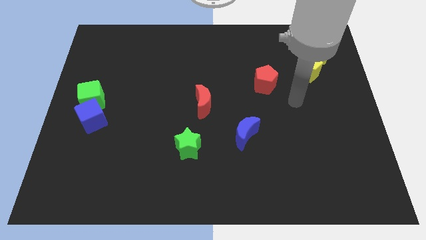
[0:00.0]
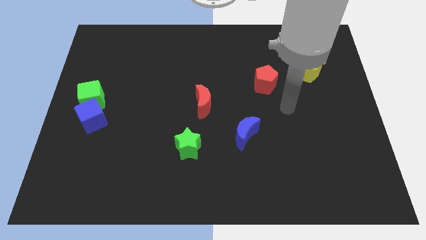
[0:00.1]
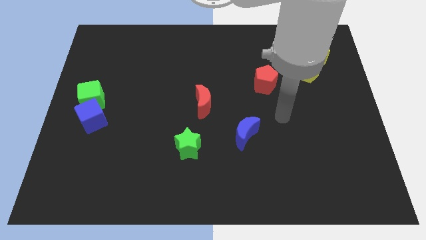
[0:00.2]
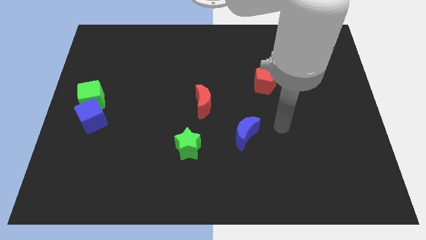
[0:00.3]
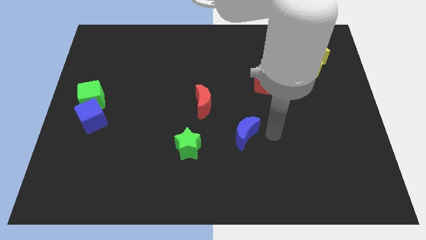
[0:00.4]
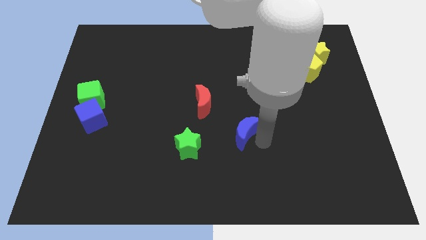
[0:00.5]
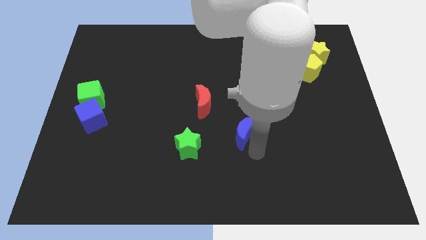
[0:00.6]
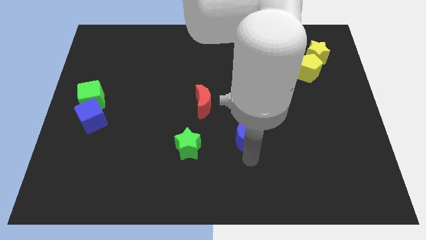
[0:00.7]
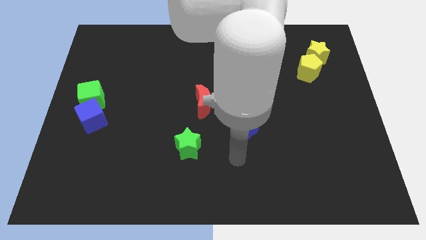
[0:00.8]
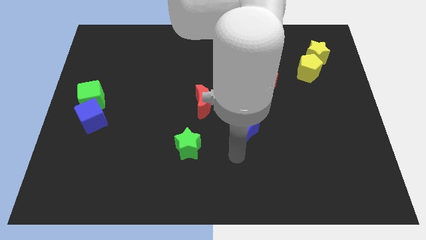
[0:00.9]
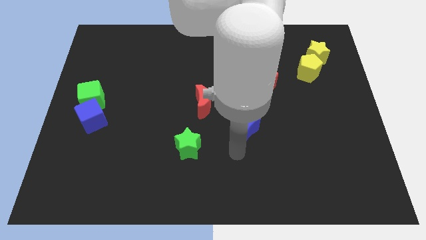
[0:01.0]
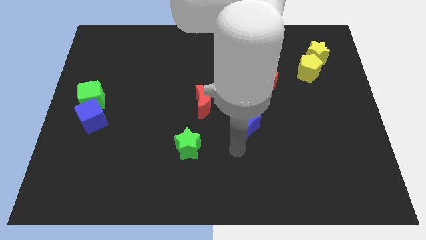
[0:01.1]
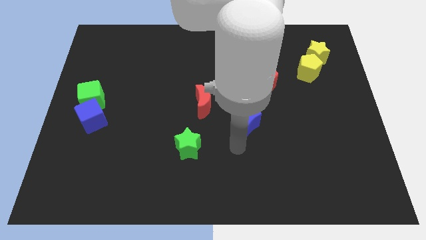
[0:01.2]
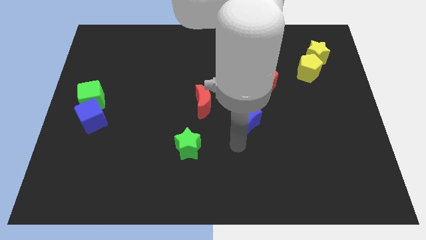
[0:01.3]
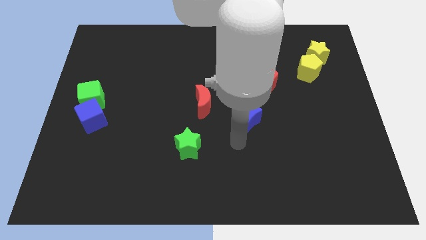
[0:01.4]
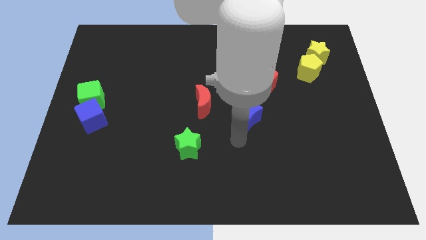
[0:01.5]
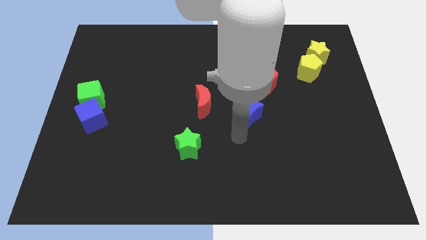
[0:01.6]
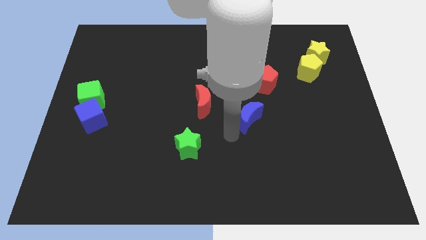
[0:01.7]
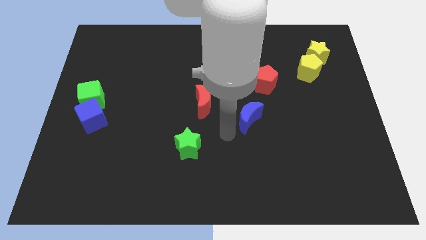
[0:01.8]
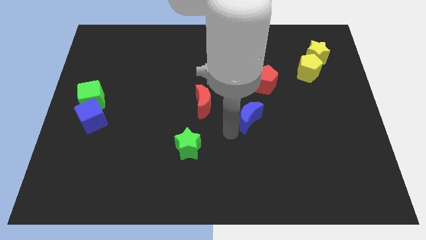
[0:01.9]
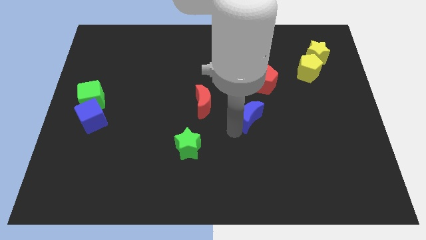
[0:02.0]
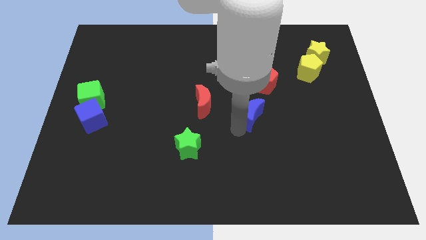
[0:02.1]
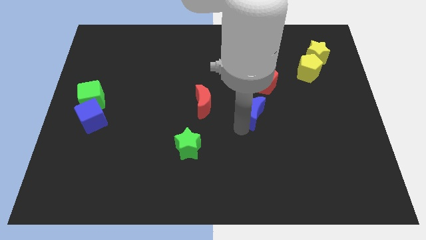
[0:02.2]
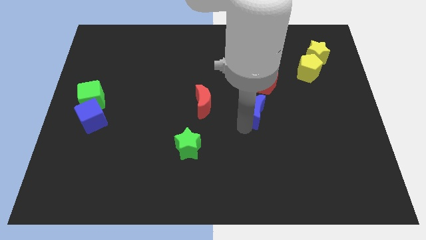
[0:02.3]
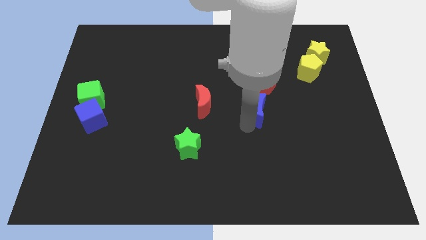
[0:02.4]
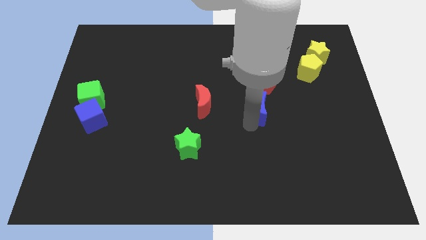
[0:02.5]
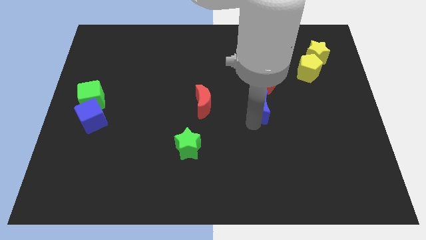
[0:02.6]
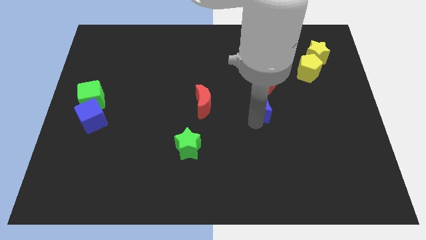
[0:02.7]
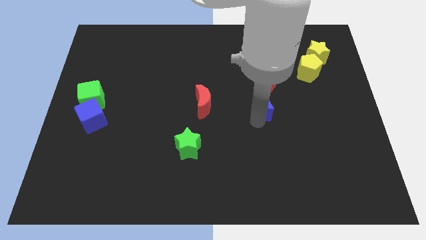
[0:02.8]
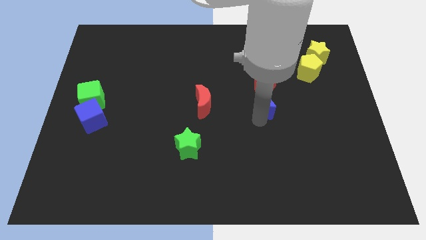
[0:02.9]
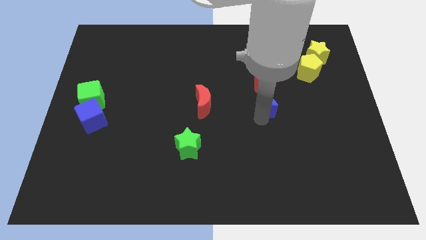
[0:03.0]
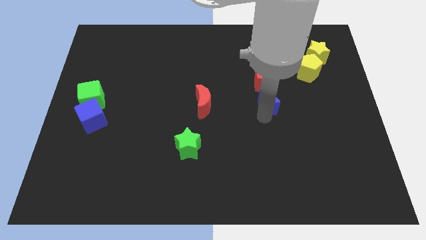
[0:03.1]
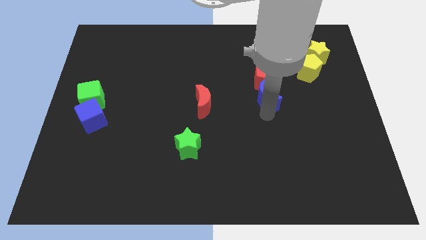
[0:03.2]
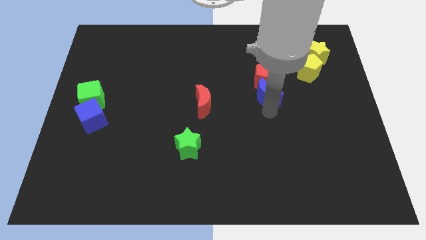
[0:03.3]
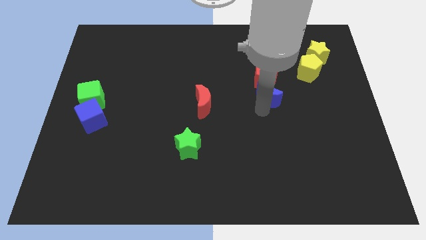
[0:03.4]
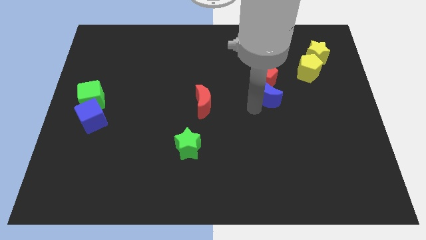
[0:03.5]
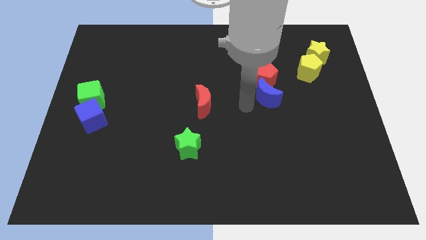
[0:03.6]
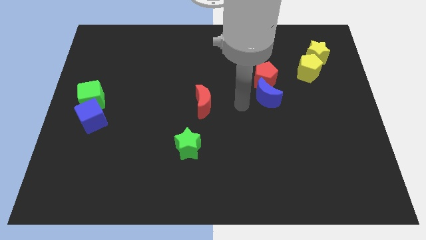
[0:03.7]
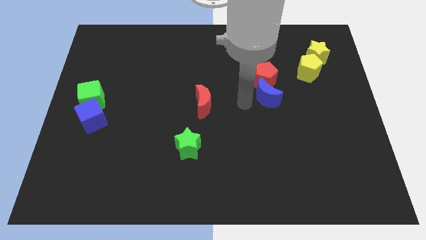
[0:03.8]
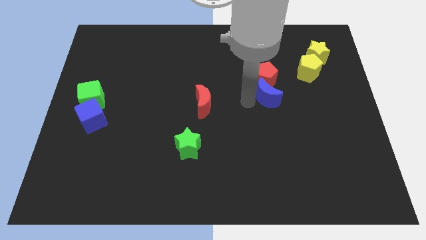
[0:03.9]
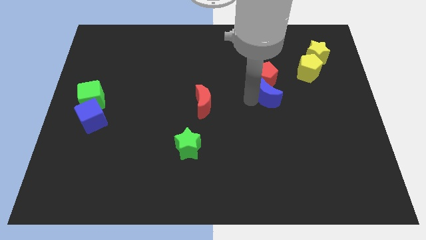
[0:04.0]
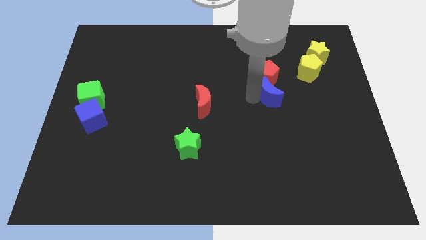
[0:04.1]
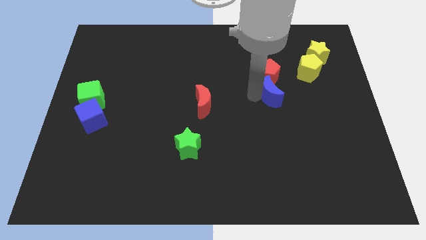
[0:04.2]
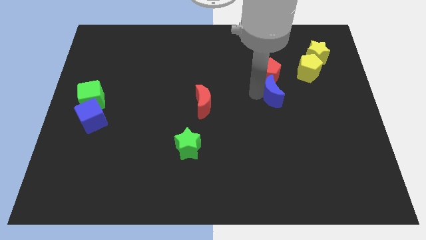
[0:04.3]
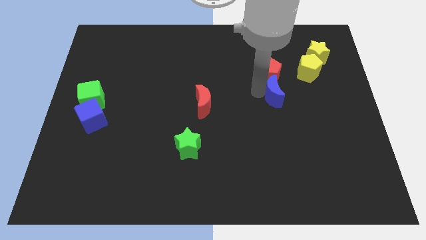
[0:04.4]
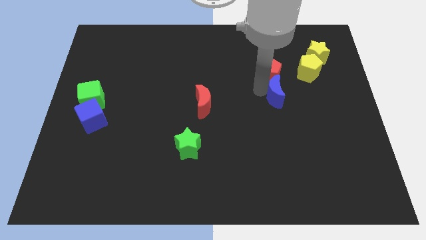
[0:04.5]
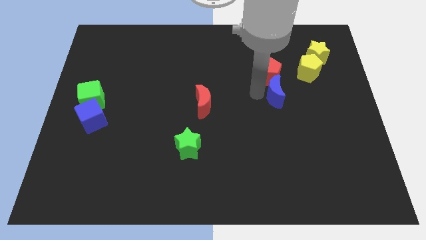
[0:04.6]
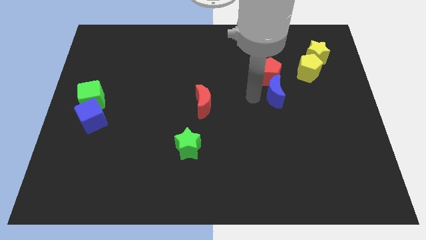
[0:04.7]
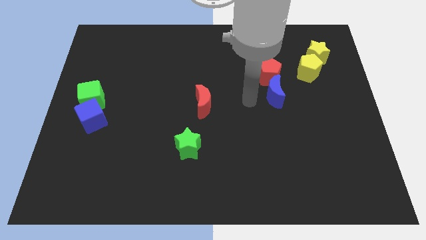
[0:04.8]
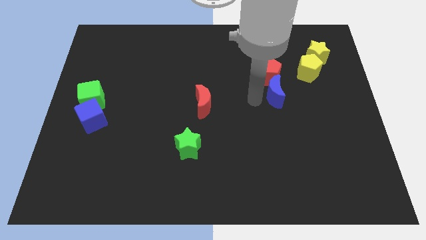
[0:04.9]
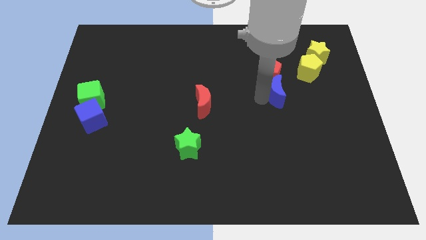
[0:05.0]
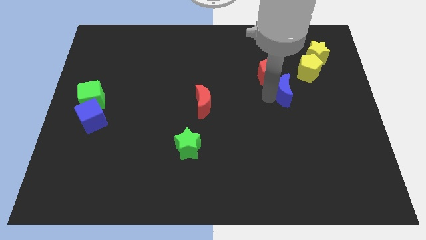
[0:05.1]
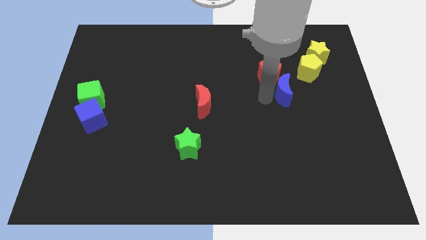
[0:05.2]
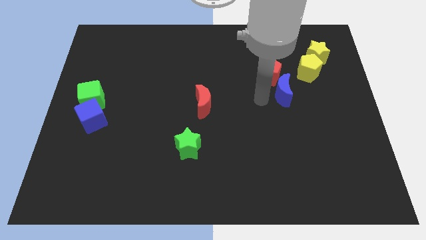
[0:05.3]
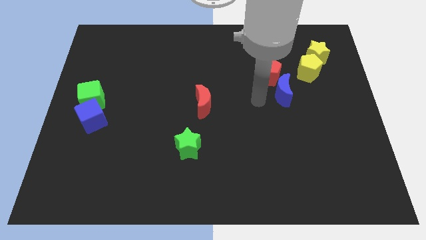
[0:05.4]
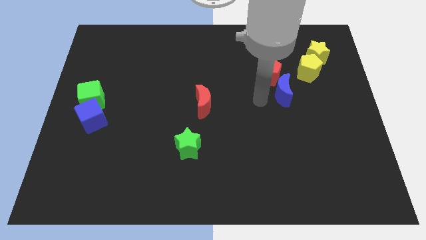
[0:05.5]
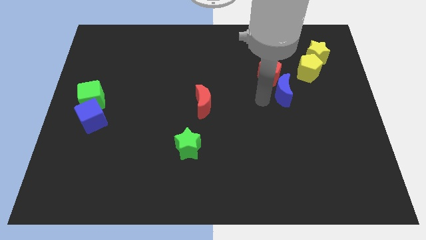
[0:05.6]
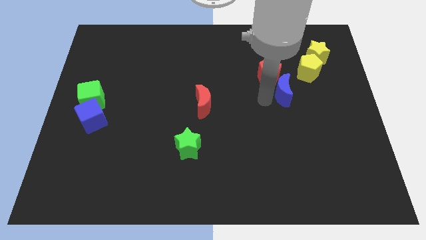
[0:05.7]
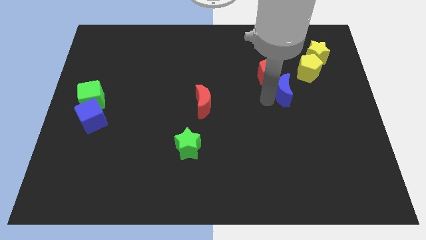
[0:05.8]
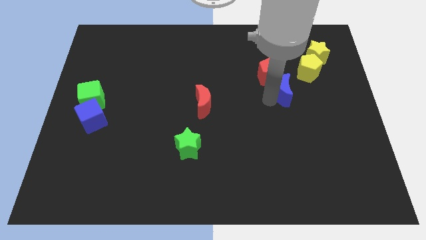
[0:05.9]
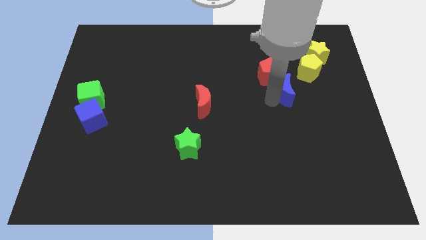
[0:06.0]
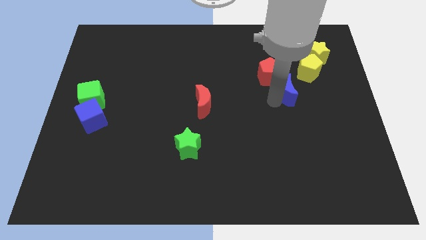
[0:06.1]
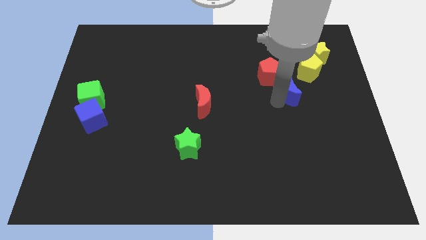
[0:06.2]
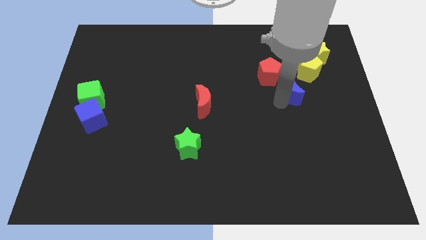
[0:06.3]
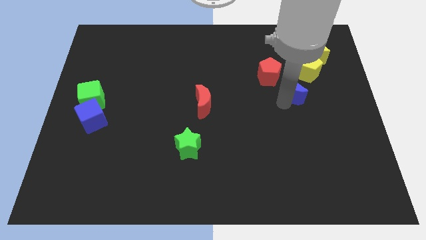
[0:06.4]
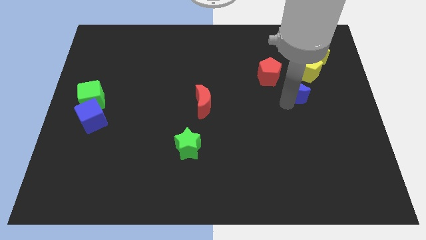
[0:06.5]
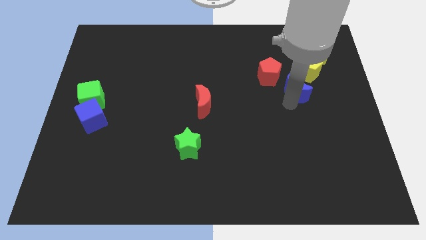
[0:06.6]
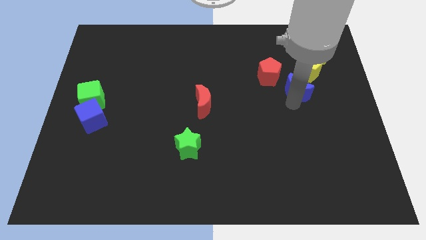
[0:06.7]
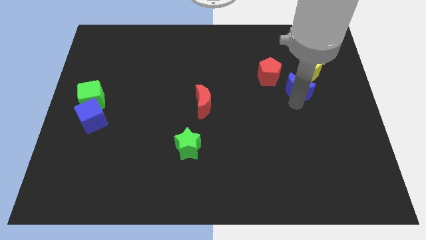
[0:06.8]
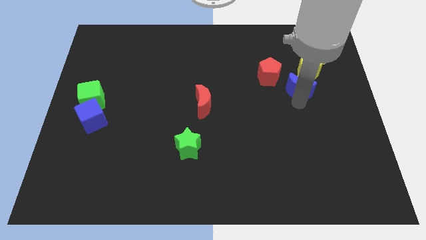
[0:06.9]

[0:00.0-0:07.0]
move the blue moon just right of the red pentagon

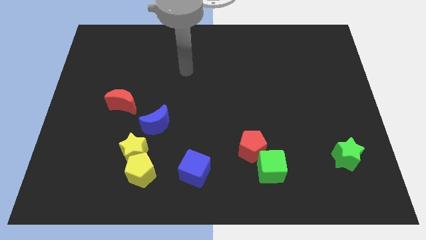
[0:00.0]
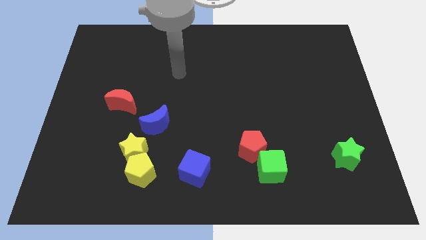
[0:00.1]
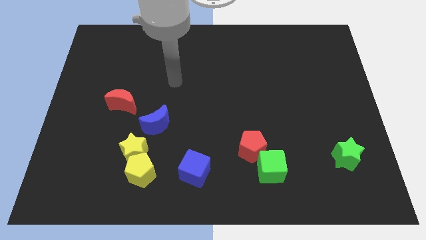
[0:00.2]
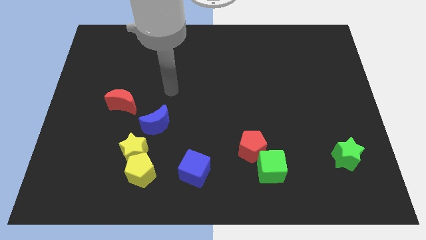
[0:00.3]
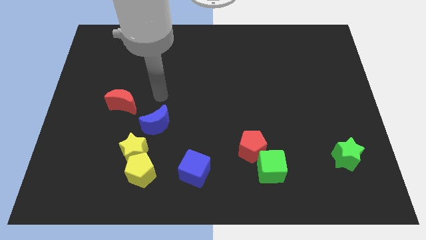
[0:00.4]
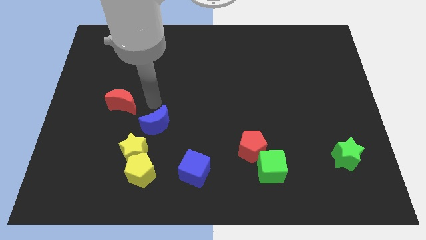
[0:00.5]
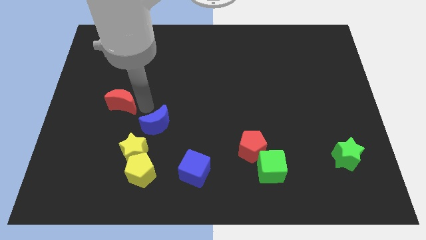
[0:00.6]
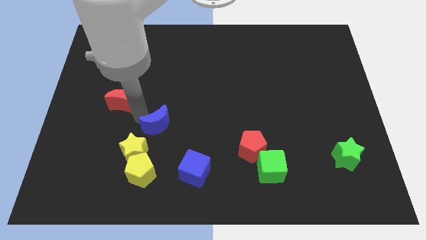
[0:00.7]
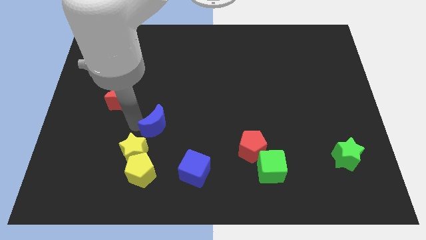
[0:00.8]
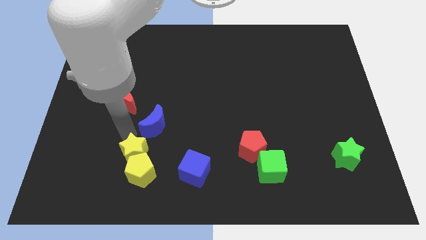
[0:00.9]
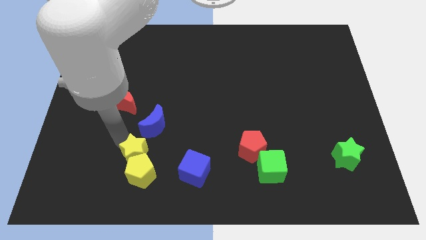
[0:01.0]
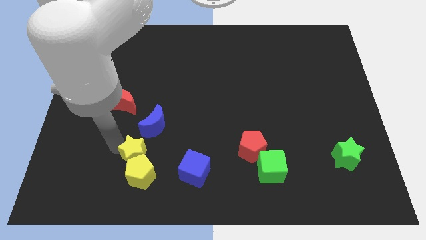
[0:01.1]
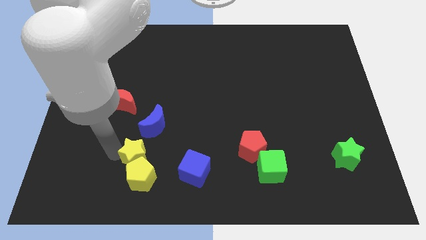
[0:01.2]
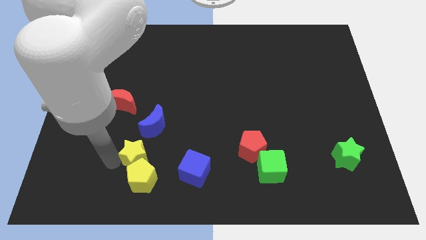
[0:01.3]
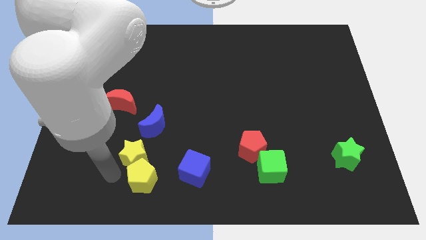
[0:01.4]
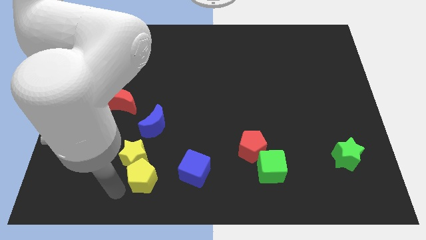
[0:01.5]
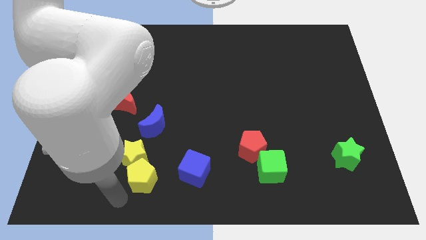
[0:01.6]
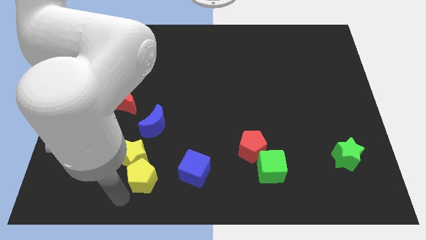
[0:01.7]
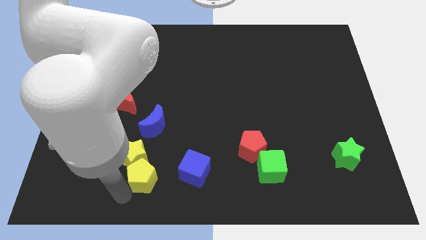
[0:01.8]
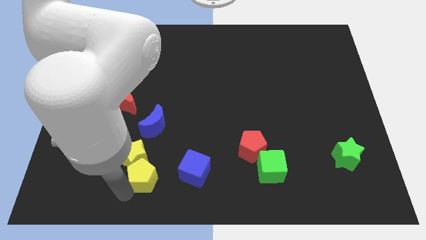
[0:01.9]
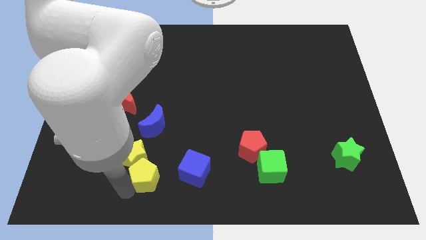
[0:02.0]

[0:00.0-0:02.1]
put the yellow pentagon just right of the yellow star
